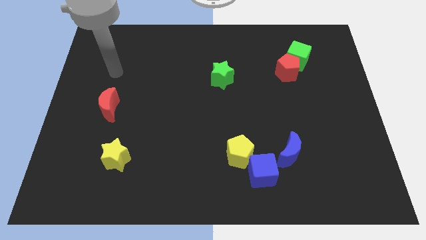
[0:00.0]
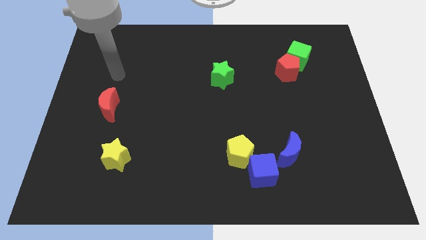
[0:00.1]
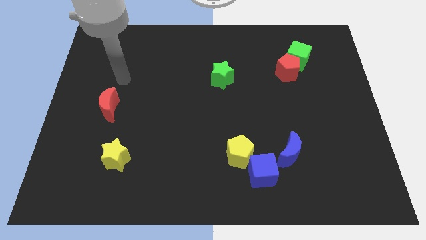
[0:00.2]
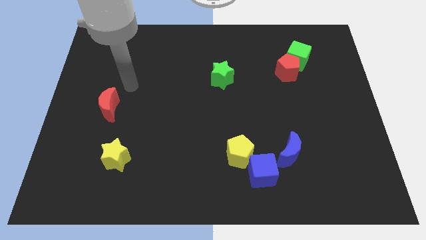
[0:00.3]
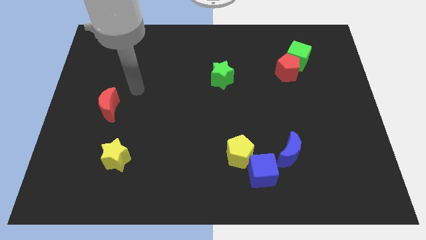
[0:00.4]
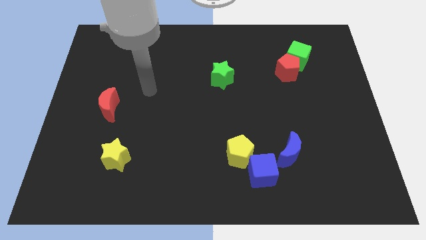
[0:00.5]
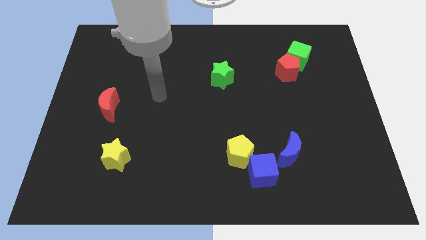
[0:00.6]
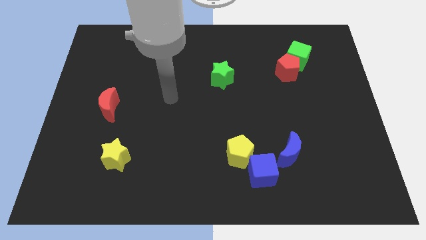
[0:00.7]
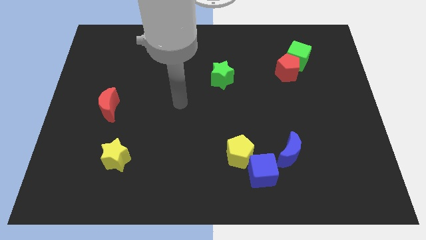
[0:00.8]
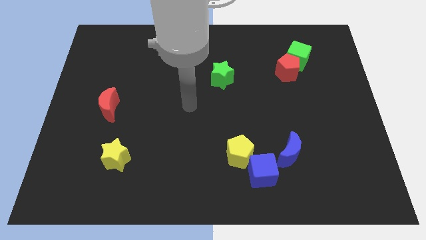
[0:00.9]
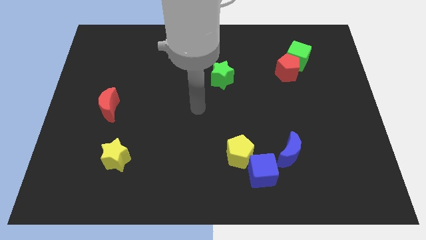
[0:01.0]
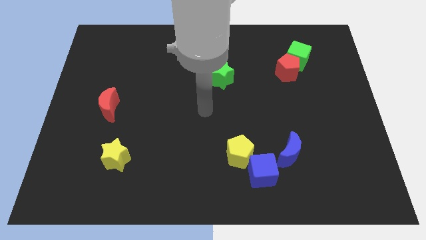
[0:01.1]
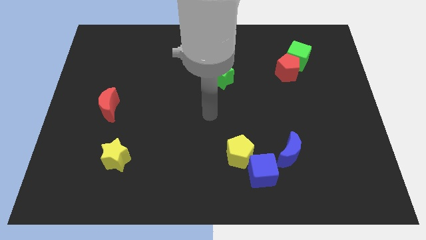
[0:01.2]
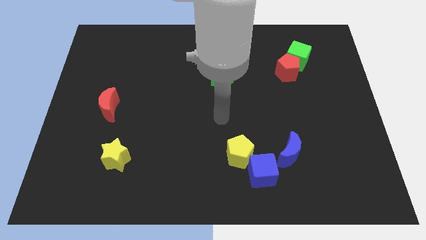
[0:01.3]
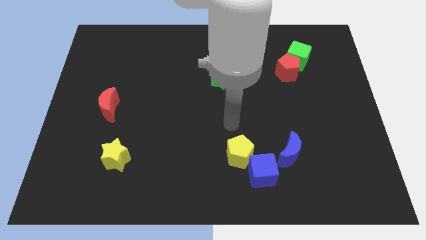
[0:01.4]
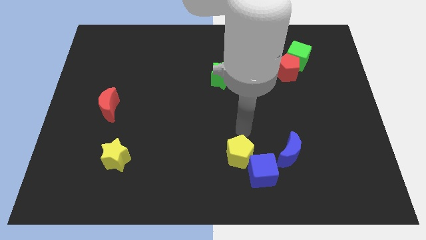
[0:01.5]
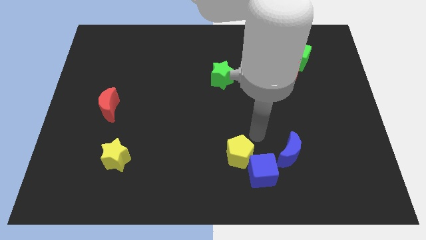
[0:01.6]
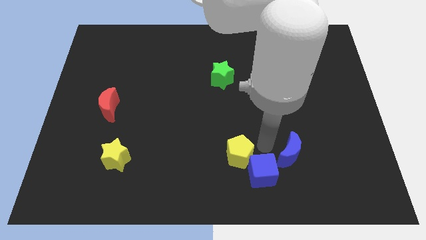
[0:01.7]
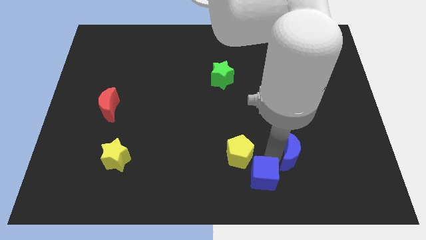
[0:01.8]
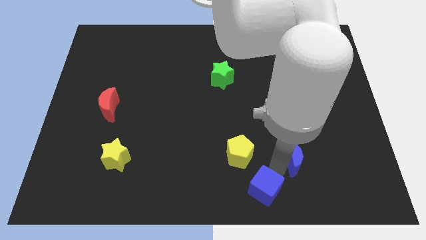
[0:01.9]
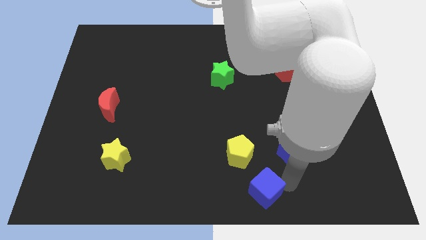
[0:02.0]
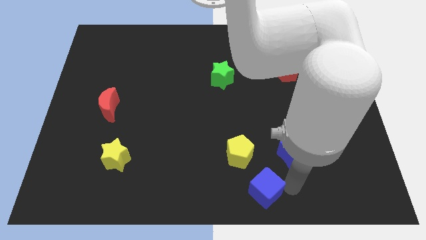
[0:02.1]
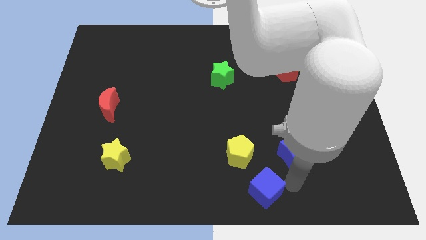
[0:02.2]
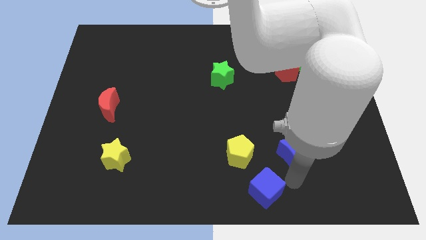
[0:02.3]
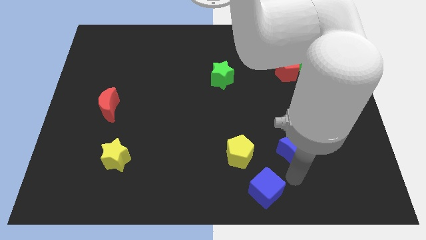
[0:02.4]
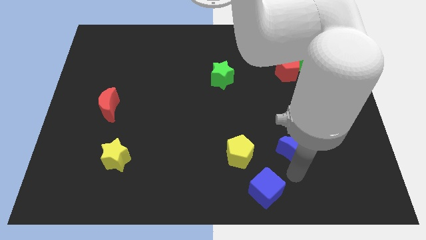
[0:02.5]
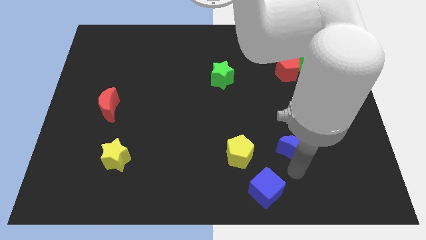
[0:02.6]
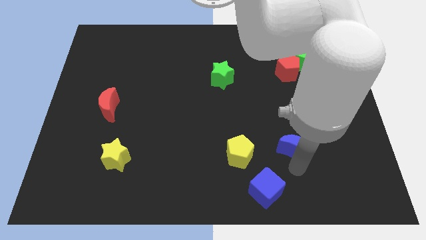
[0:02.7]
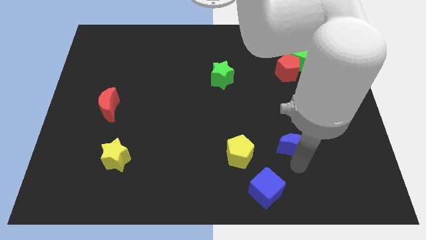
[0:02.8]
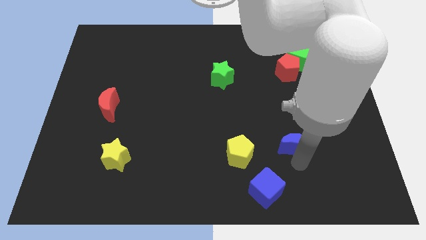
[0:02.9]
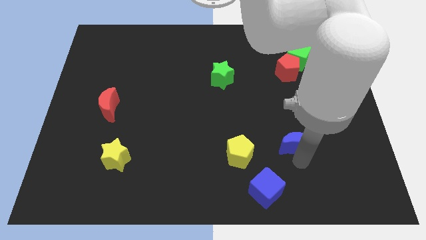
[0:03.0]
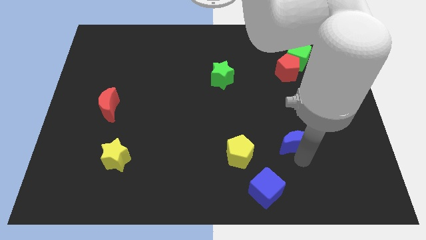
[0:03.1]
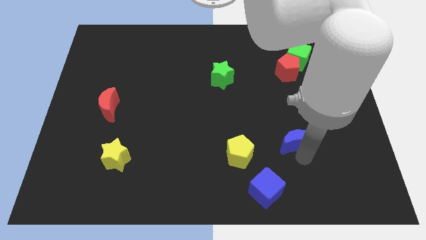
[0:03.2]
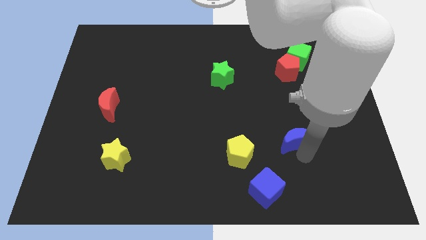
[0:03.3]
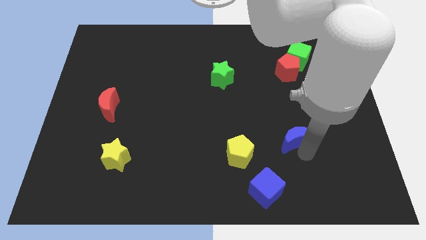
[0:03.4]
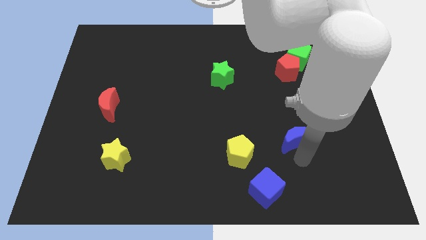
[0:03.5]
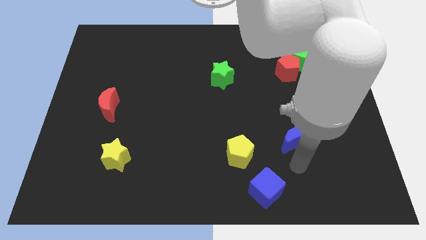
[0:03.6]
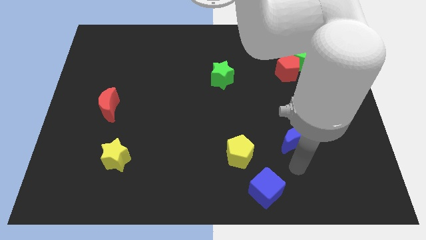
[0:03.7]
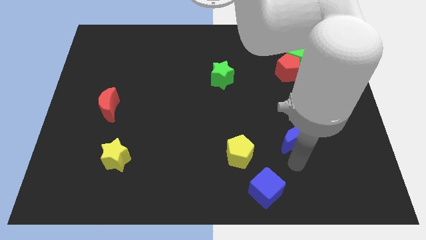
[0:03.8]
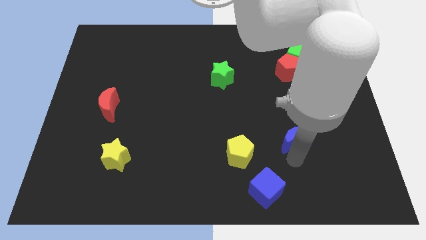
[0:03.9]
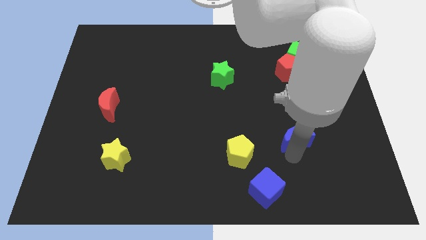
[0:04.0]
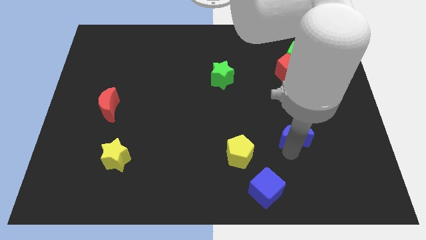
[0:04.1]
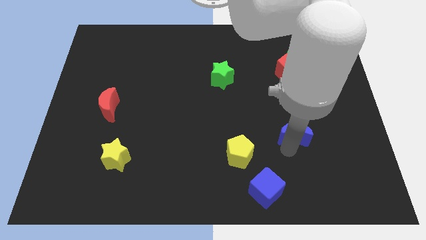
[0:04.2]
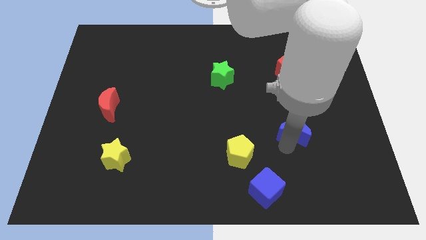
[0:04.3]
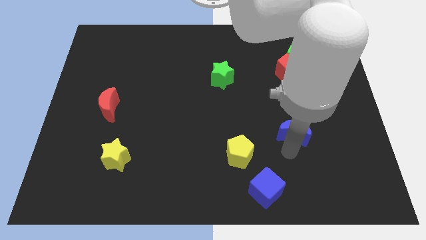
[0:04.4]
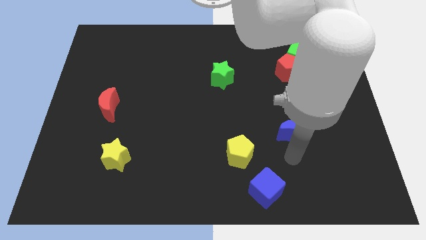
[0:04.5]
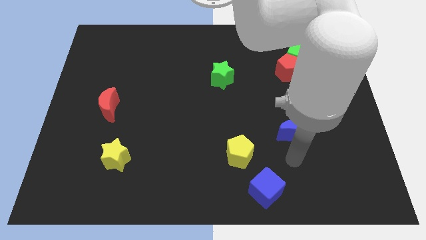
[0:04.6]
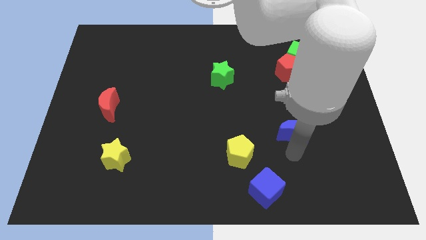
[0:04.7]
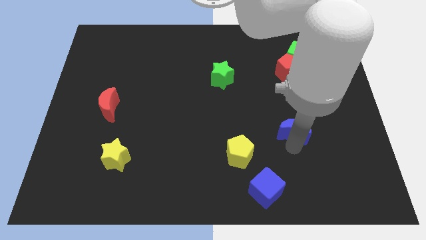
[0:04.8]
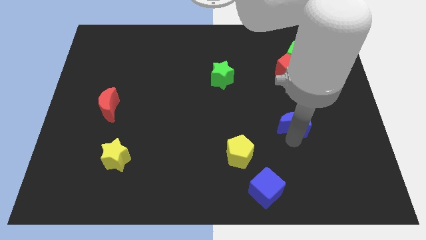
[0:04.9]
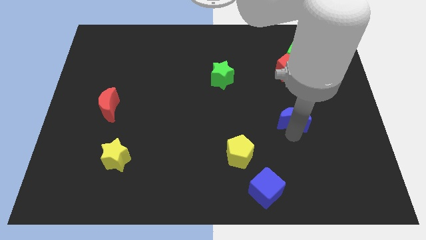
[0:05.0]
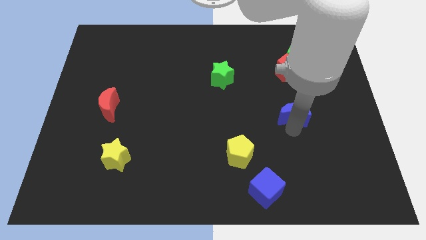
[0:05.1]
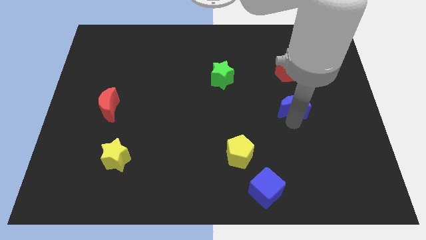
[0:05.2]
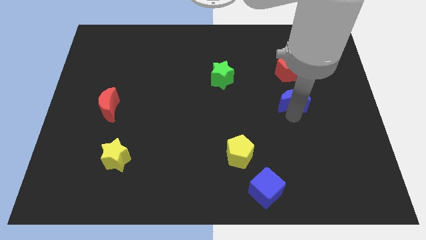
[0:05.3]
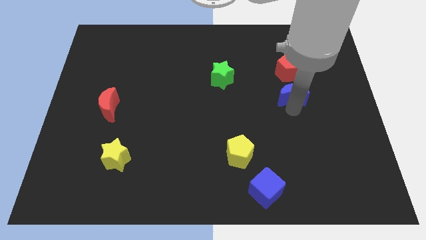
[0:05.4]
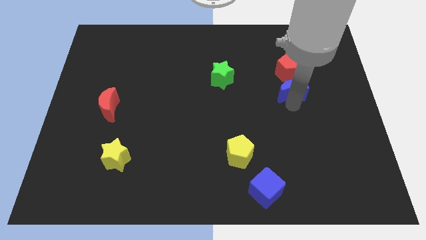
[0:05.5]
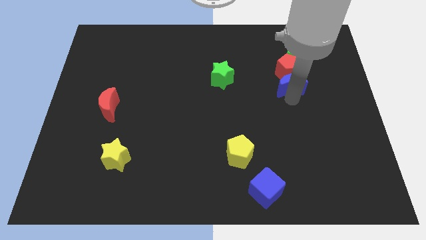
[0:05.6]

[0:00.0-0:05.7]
move the blue moon next to the red pentagon

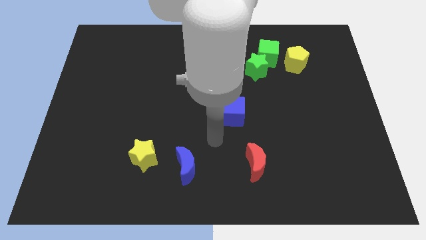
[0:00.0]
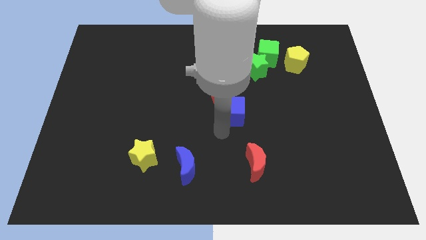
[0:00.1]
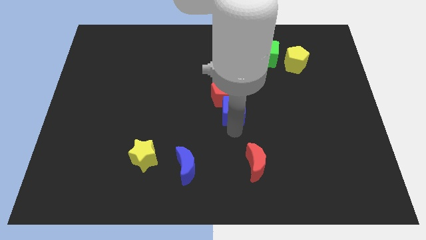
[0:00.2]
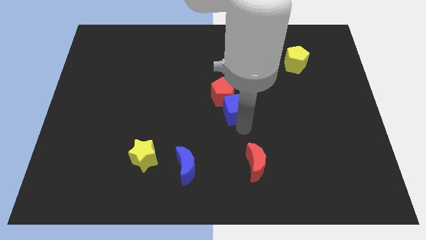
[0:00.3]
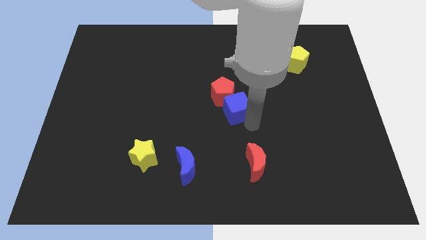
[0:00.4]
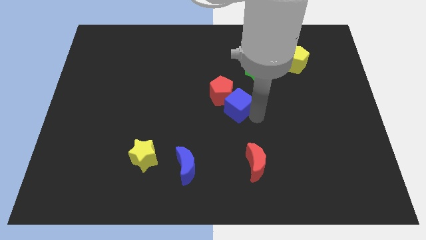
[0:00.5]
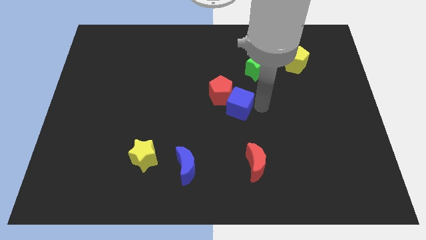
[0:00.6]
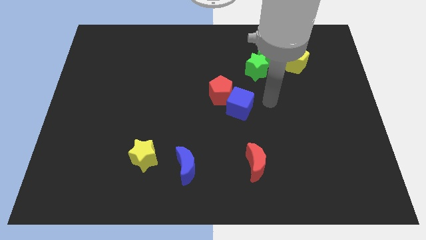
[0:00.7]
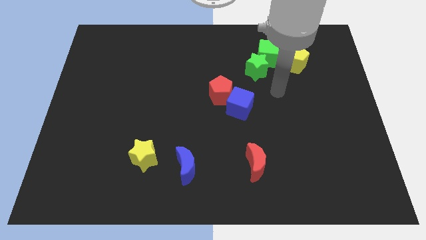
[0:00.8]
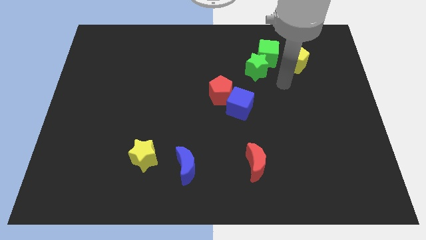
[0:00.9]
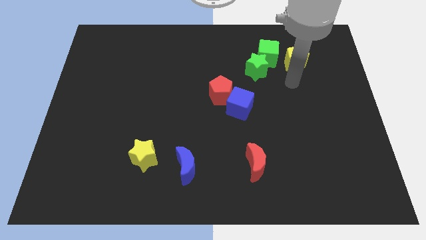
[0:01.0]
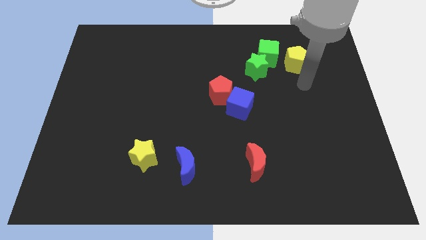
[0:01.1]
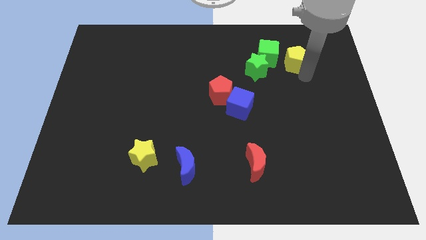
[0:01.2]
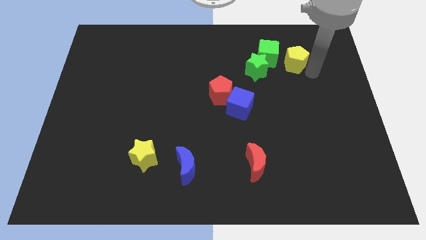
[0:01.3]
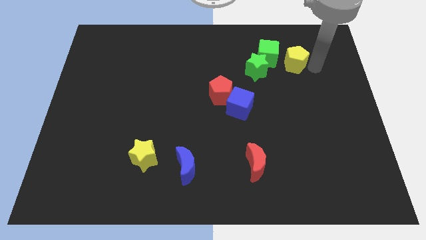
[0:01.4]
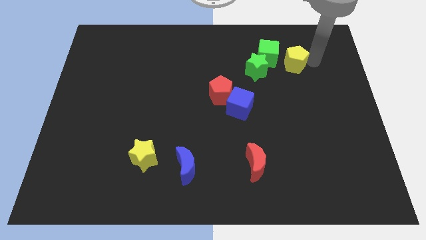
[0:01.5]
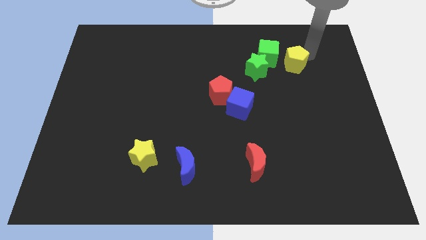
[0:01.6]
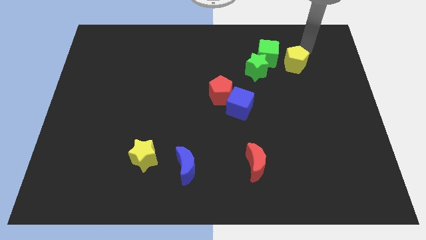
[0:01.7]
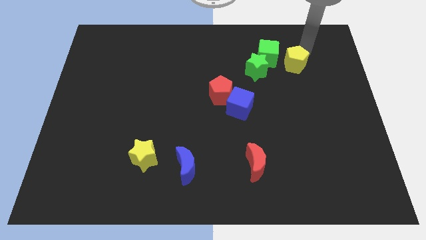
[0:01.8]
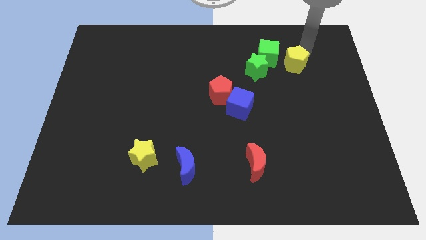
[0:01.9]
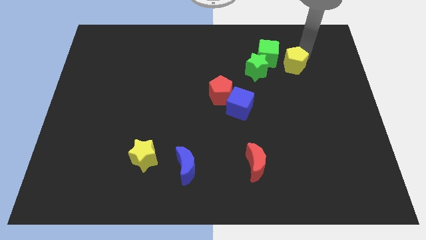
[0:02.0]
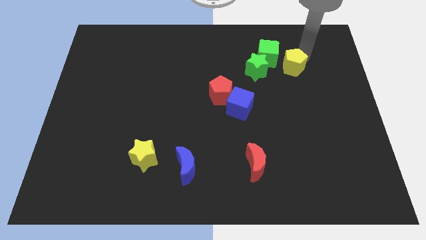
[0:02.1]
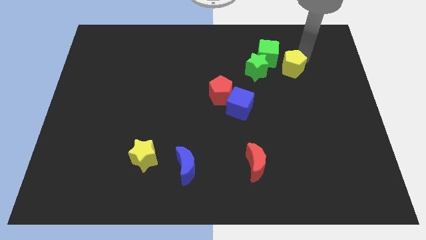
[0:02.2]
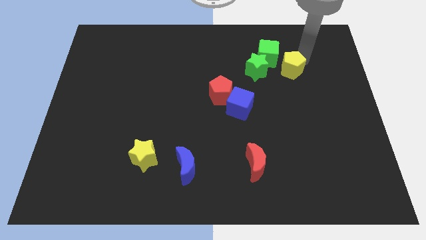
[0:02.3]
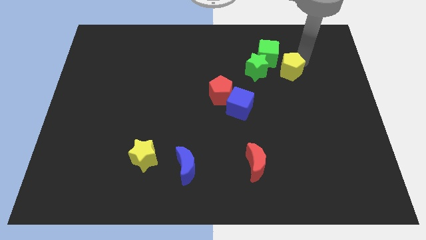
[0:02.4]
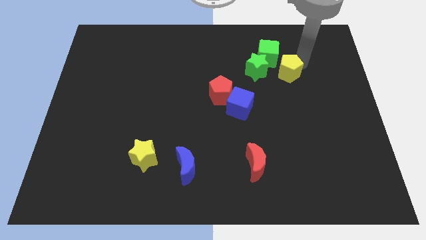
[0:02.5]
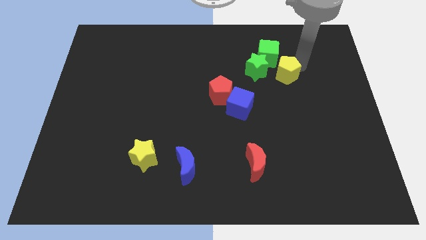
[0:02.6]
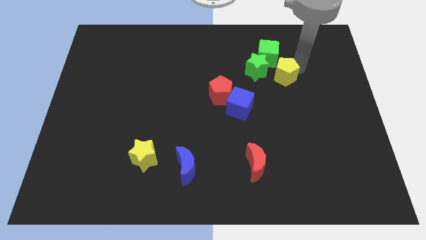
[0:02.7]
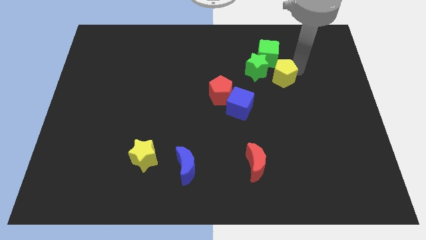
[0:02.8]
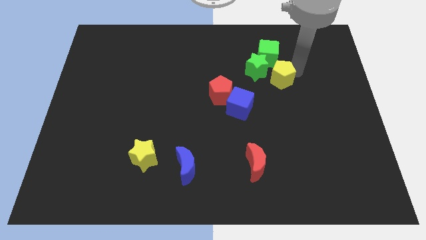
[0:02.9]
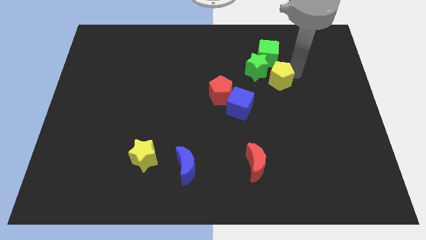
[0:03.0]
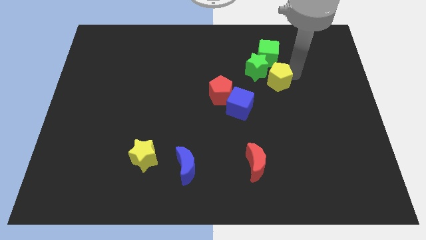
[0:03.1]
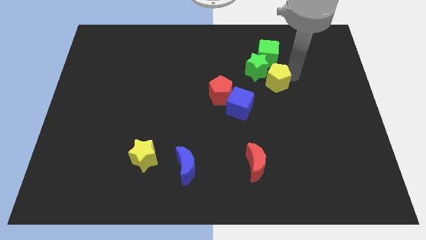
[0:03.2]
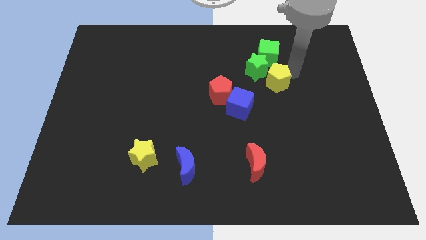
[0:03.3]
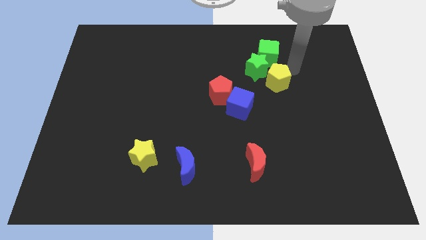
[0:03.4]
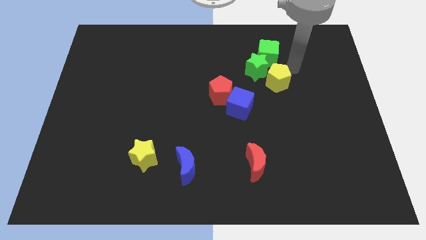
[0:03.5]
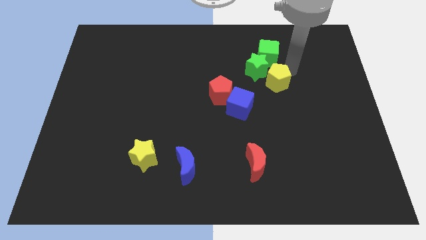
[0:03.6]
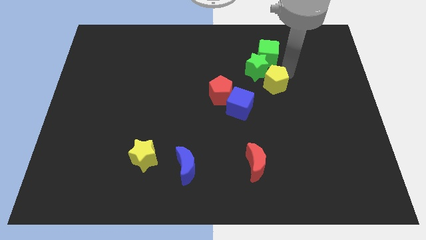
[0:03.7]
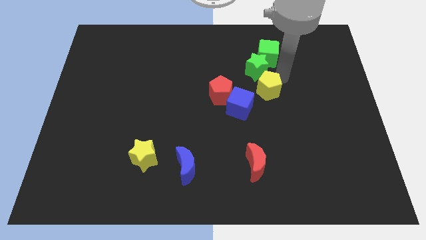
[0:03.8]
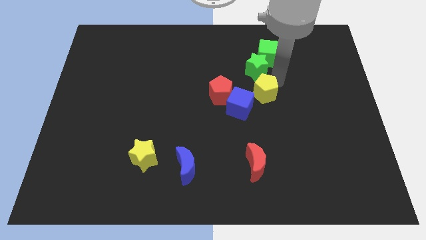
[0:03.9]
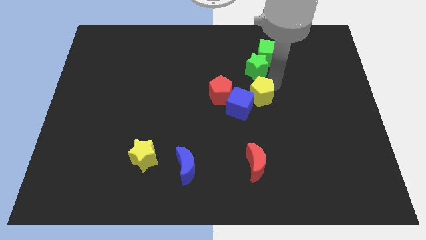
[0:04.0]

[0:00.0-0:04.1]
move the yellow pentagon close to the blue cube
